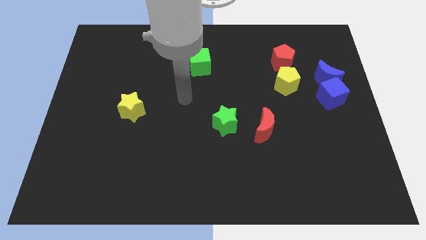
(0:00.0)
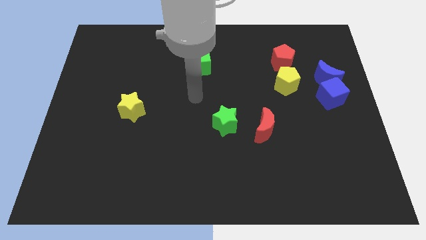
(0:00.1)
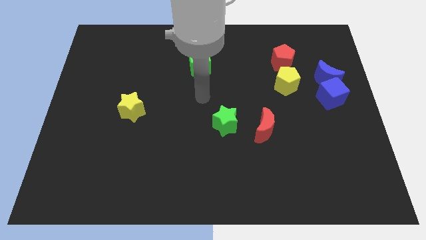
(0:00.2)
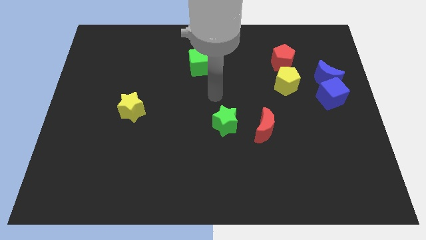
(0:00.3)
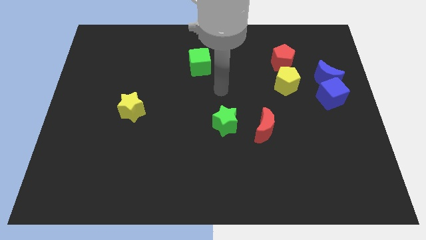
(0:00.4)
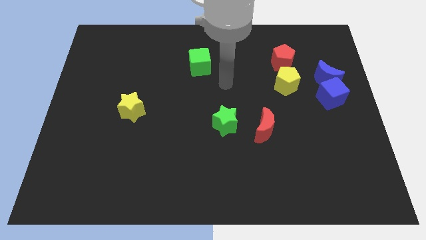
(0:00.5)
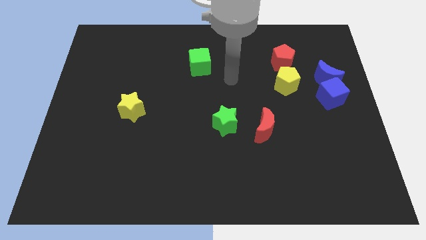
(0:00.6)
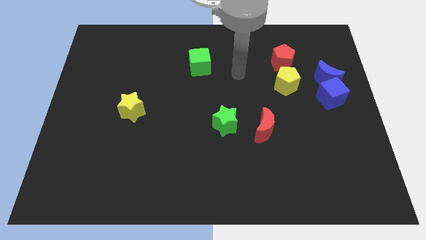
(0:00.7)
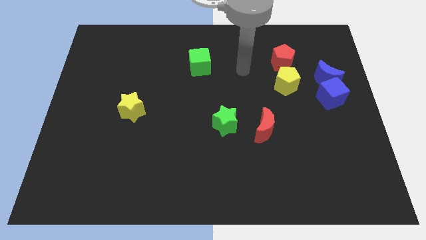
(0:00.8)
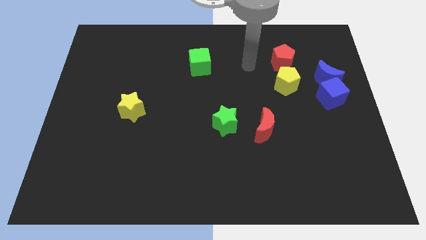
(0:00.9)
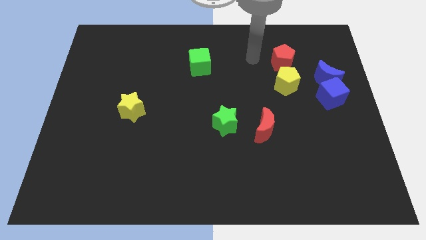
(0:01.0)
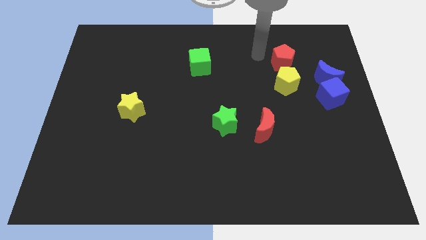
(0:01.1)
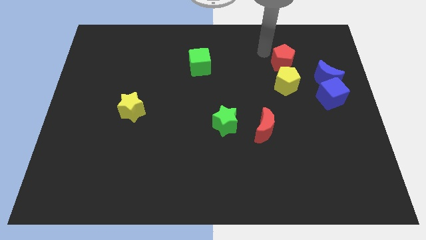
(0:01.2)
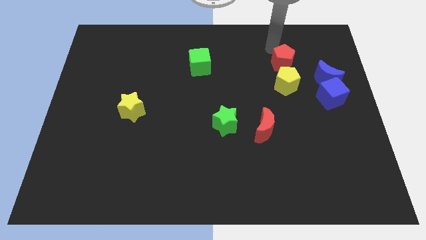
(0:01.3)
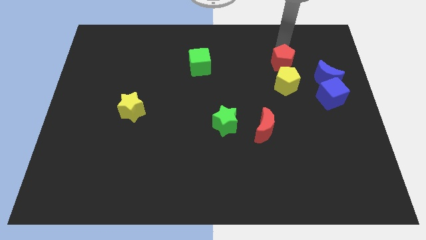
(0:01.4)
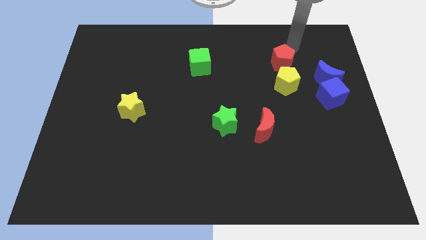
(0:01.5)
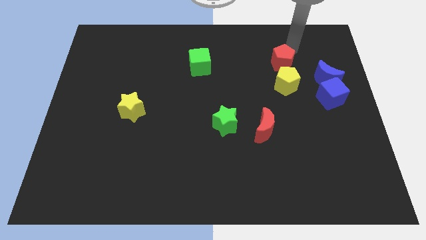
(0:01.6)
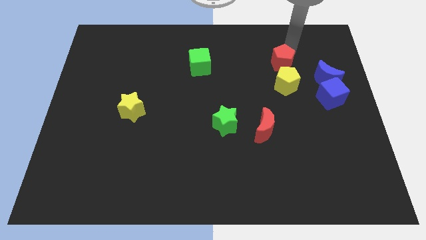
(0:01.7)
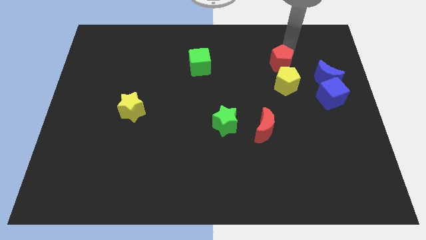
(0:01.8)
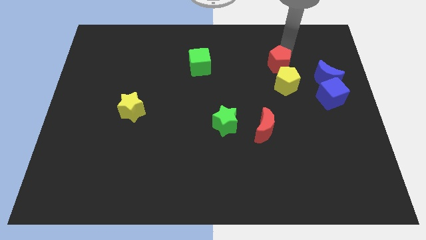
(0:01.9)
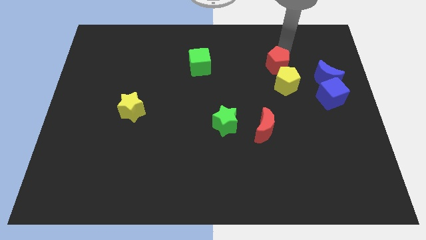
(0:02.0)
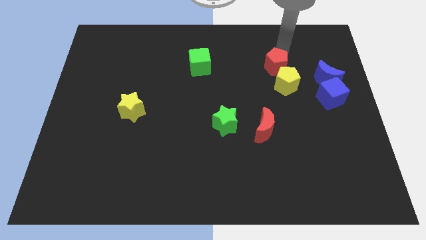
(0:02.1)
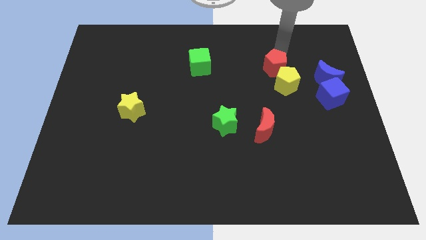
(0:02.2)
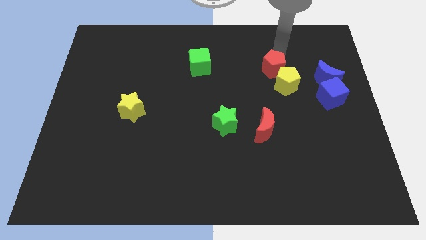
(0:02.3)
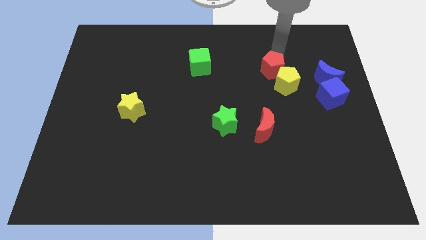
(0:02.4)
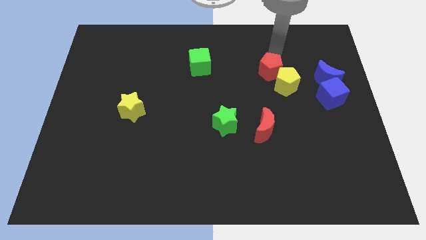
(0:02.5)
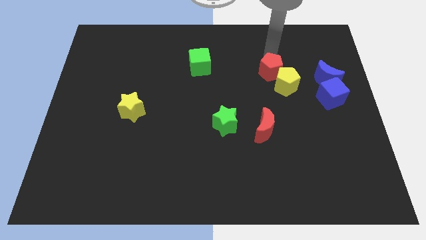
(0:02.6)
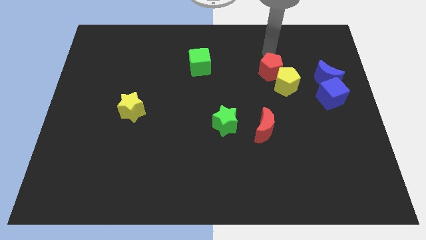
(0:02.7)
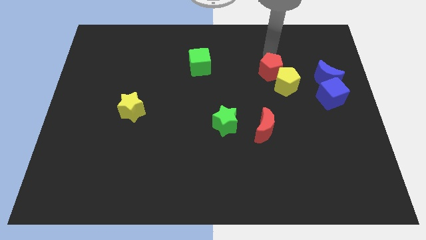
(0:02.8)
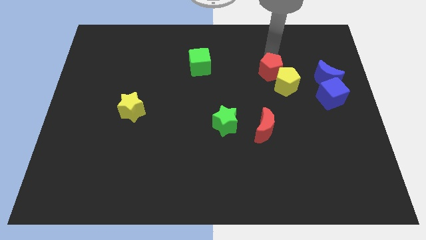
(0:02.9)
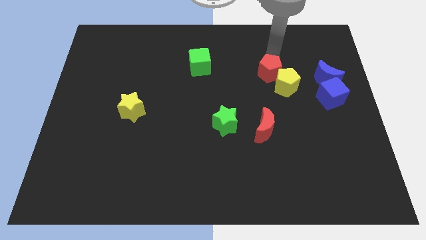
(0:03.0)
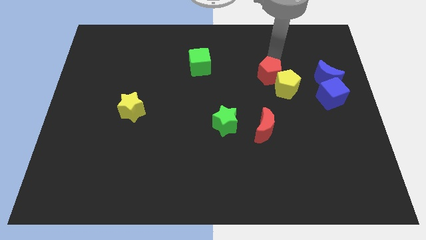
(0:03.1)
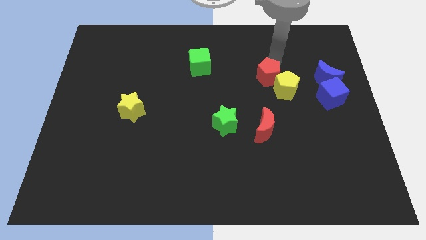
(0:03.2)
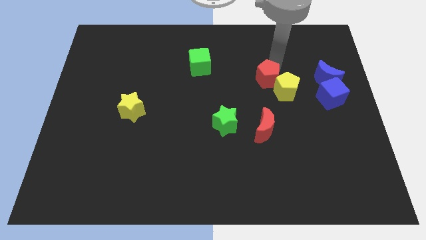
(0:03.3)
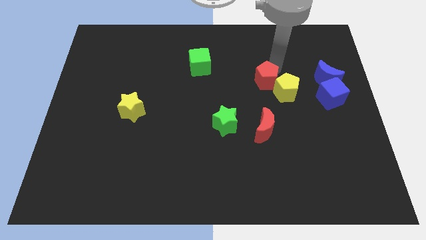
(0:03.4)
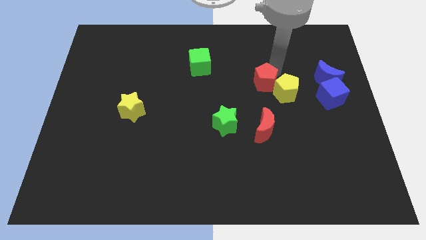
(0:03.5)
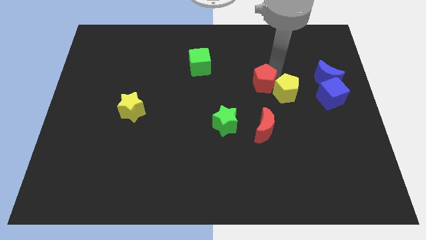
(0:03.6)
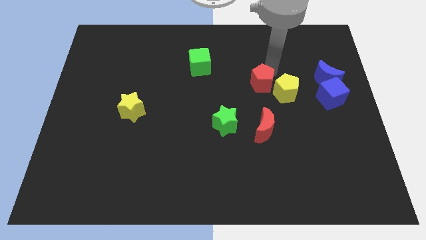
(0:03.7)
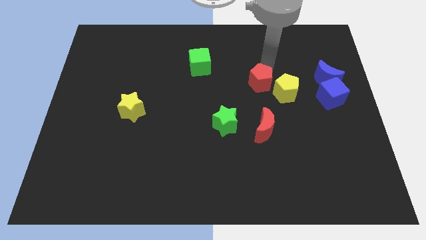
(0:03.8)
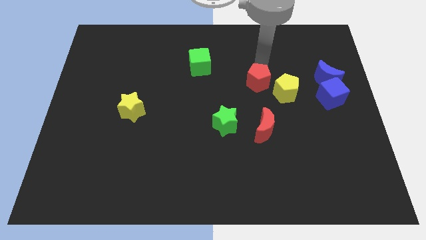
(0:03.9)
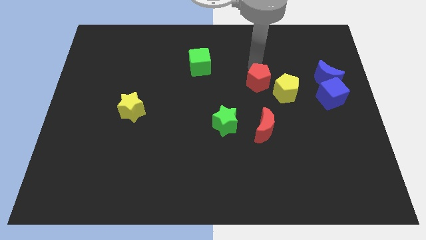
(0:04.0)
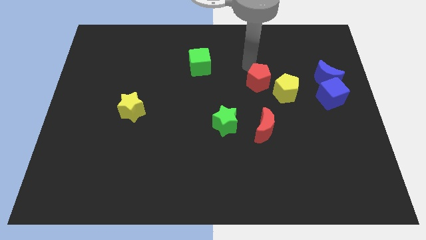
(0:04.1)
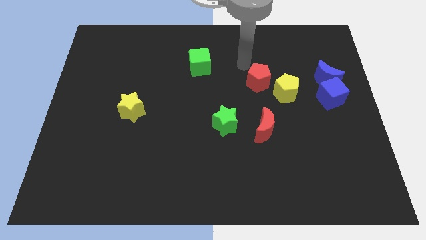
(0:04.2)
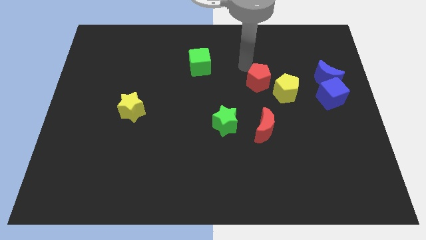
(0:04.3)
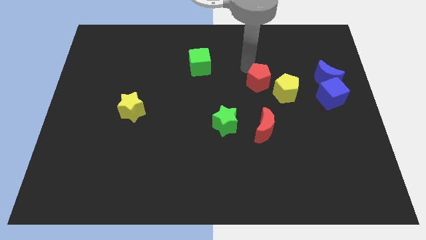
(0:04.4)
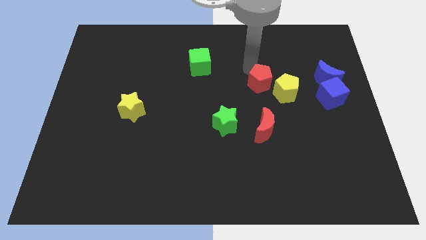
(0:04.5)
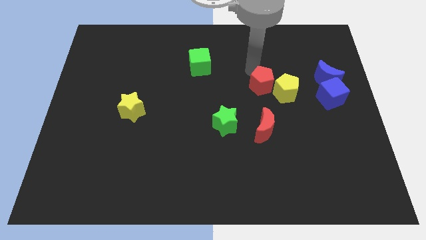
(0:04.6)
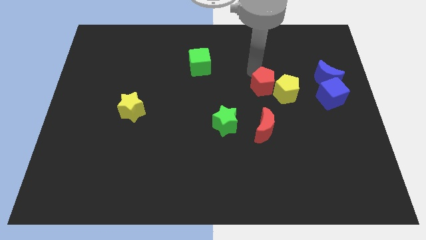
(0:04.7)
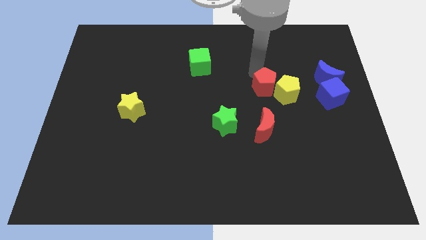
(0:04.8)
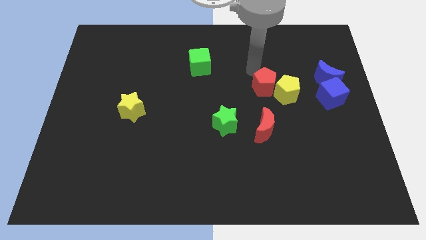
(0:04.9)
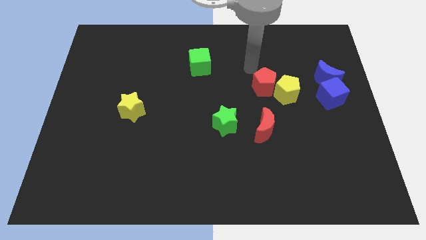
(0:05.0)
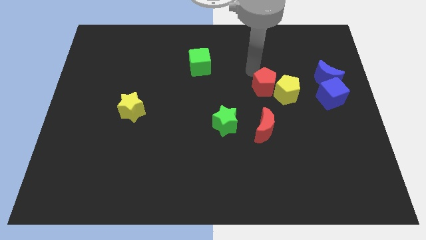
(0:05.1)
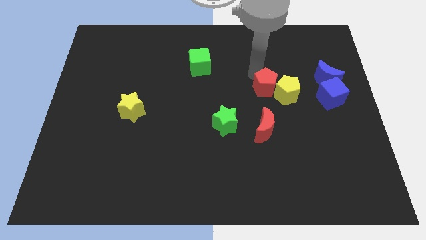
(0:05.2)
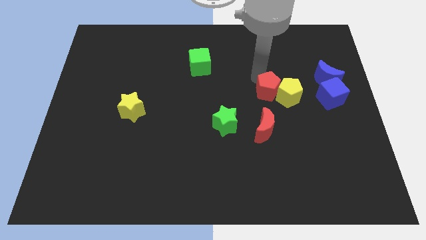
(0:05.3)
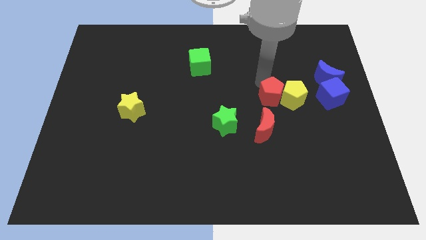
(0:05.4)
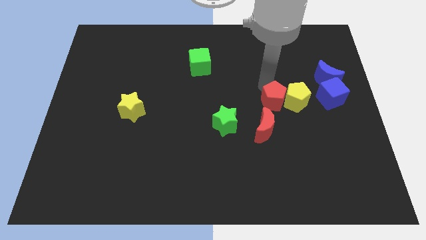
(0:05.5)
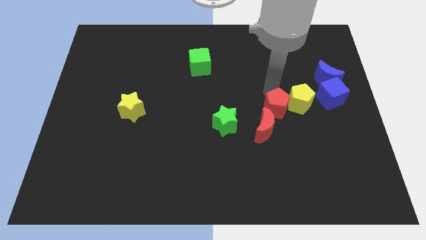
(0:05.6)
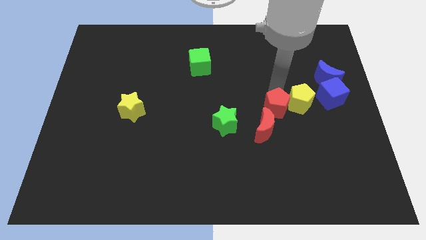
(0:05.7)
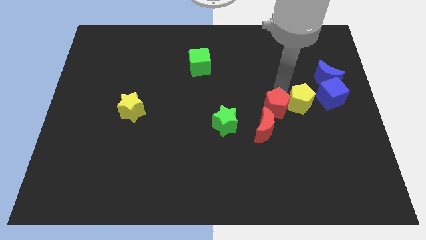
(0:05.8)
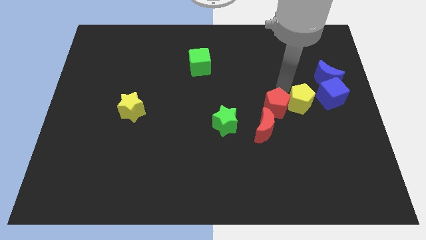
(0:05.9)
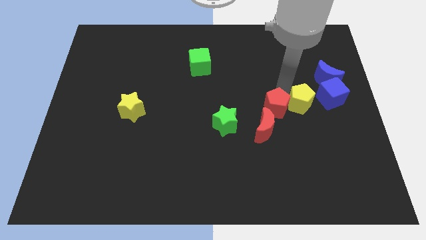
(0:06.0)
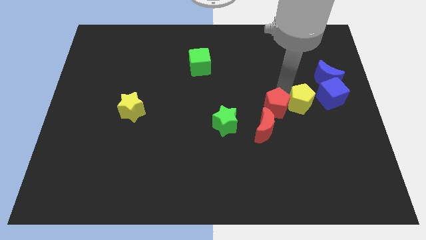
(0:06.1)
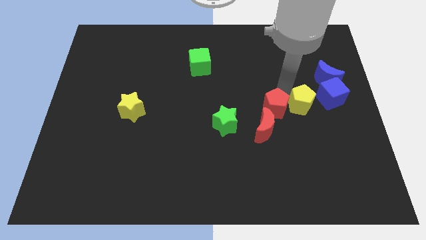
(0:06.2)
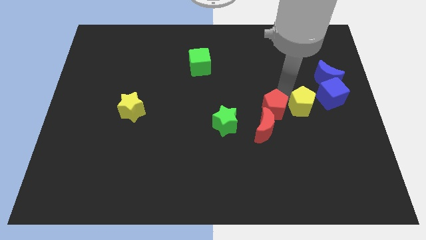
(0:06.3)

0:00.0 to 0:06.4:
put the red pentagon to the red moon

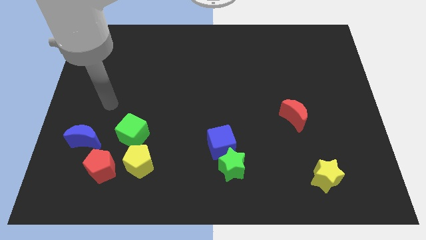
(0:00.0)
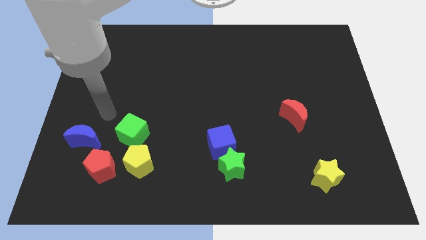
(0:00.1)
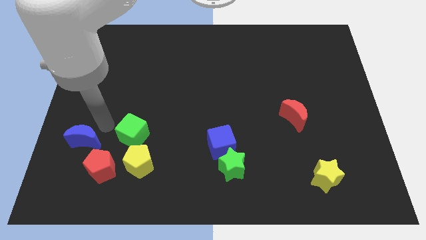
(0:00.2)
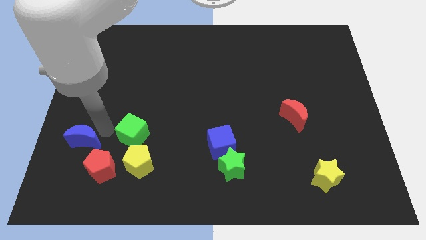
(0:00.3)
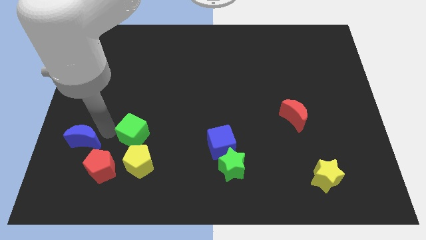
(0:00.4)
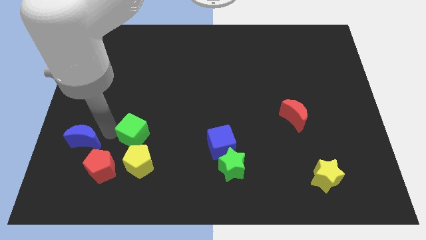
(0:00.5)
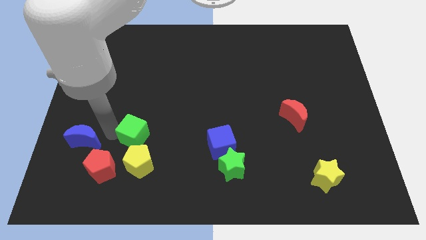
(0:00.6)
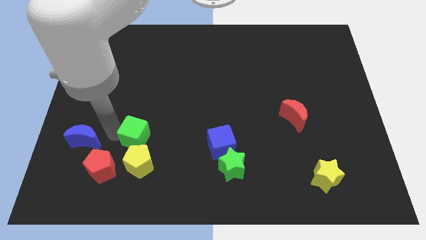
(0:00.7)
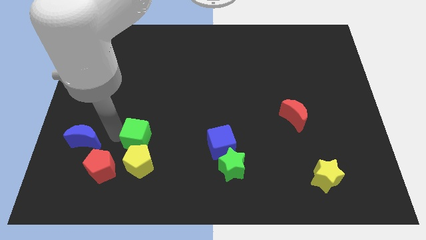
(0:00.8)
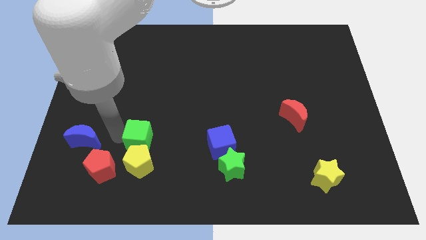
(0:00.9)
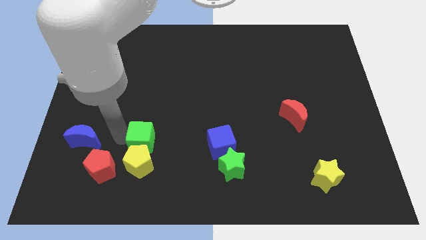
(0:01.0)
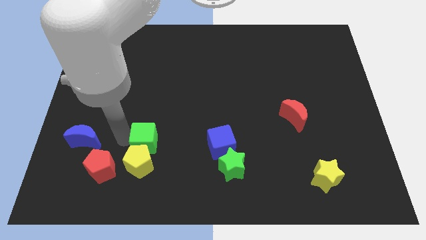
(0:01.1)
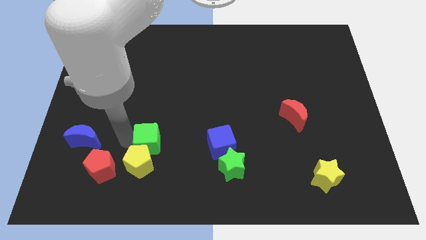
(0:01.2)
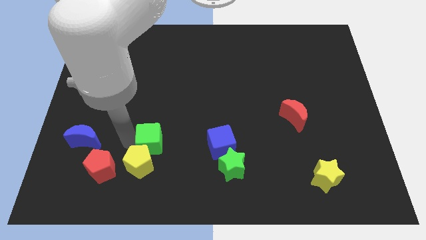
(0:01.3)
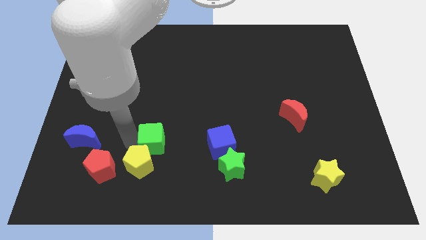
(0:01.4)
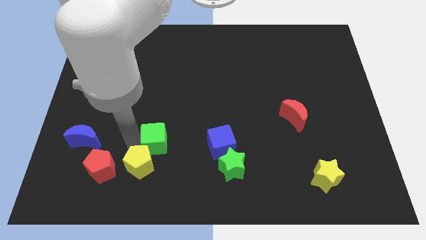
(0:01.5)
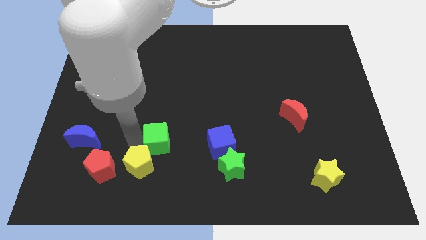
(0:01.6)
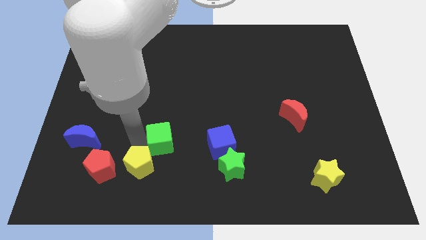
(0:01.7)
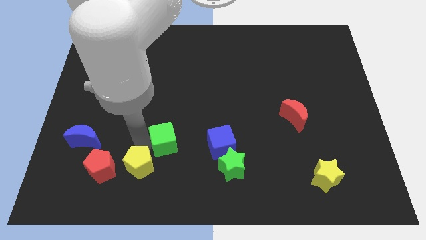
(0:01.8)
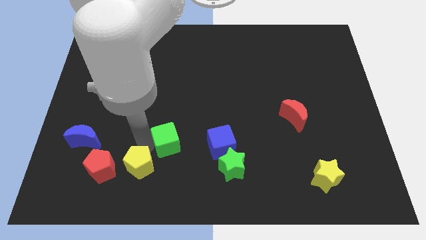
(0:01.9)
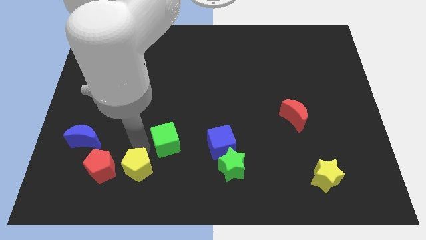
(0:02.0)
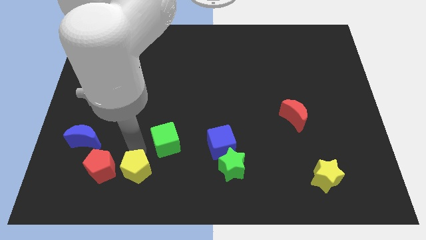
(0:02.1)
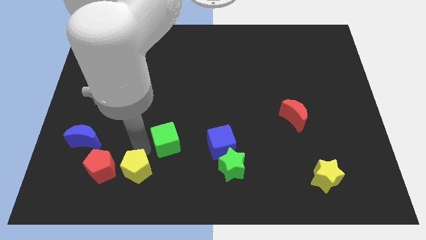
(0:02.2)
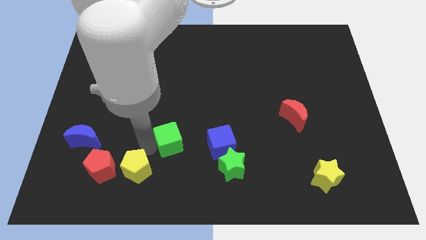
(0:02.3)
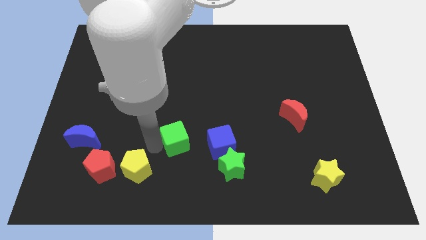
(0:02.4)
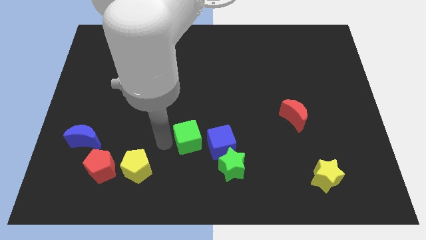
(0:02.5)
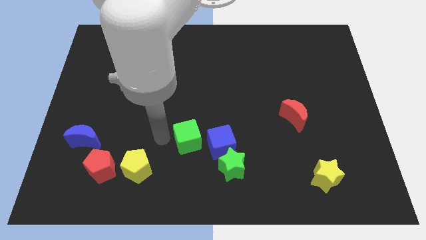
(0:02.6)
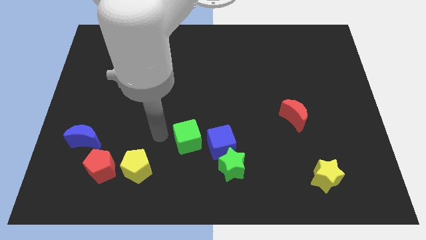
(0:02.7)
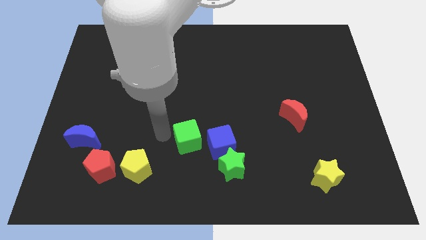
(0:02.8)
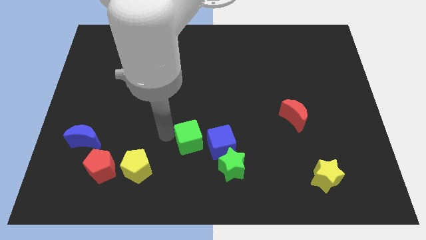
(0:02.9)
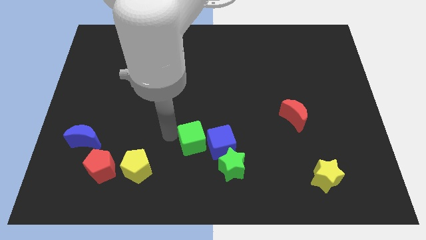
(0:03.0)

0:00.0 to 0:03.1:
move the green cube close to the blue cube
